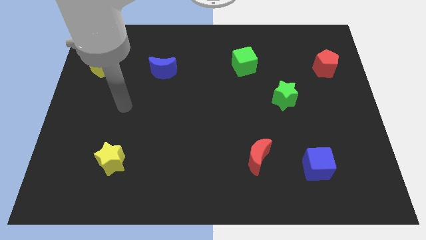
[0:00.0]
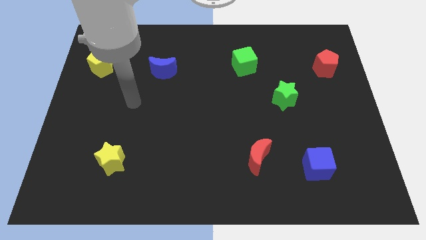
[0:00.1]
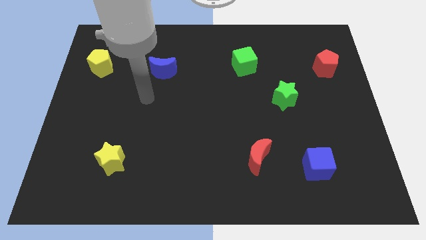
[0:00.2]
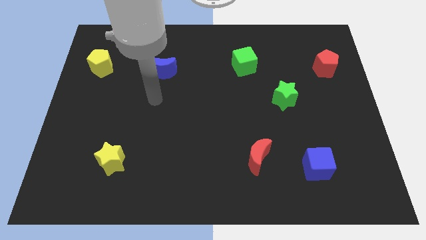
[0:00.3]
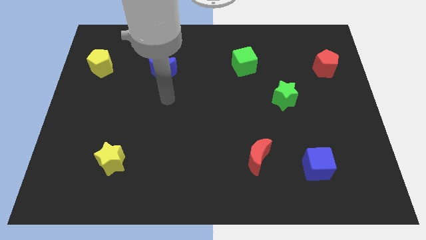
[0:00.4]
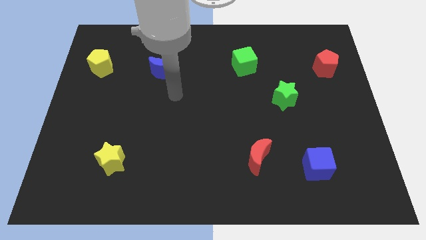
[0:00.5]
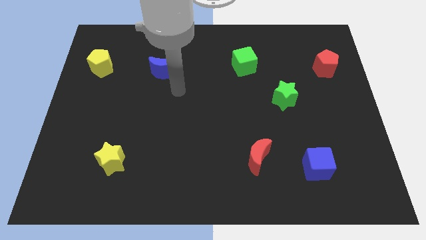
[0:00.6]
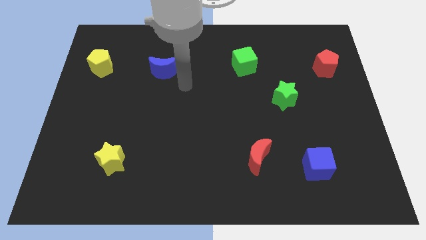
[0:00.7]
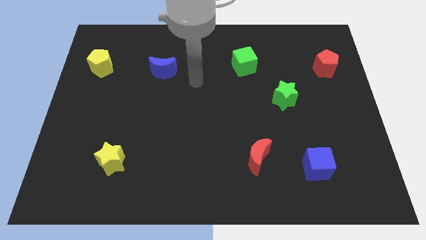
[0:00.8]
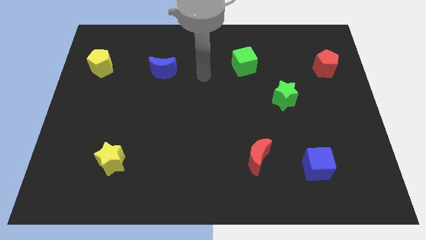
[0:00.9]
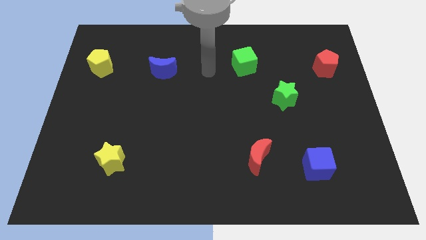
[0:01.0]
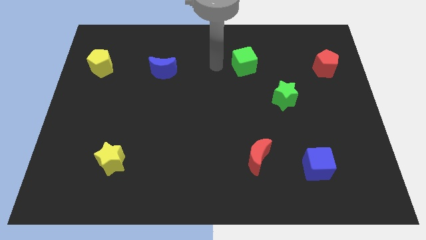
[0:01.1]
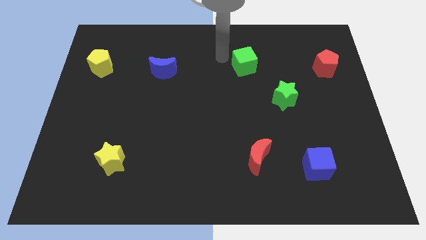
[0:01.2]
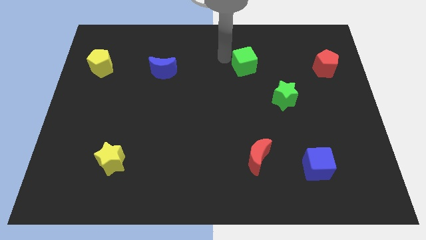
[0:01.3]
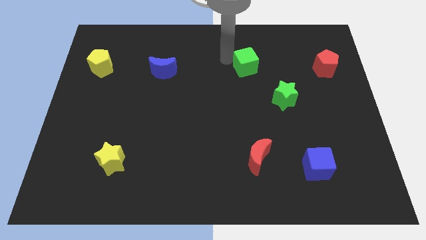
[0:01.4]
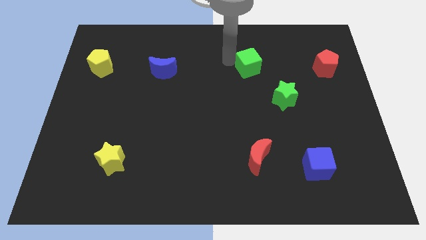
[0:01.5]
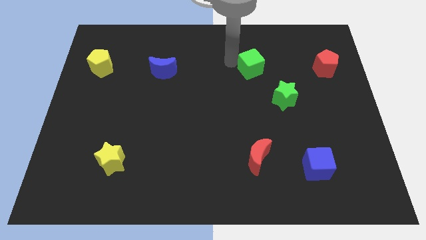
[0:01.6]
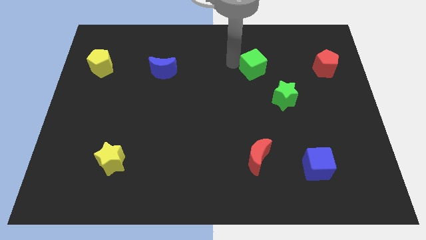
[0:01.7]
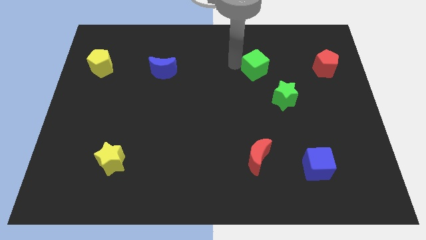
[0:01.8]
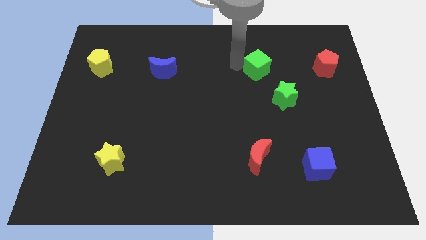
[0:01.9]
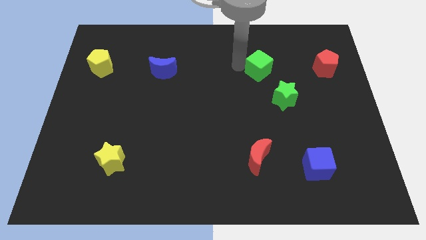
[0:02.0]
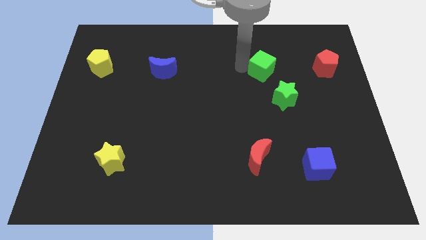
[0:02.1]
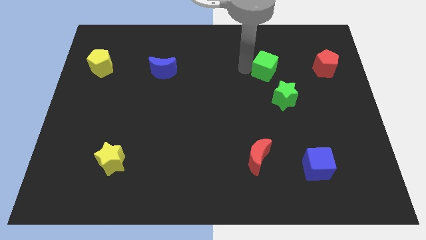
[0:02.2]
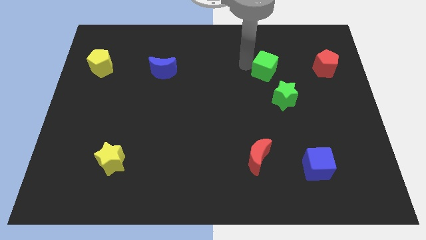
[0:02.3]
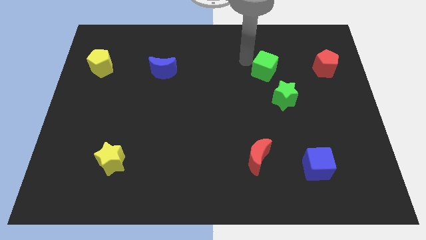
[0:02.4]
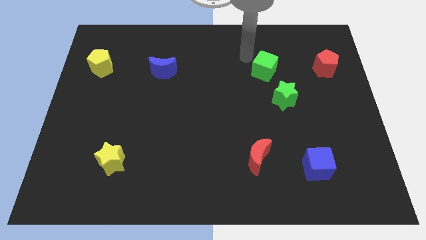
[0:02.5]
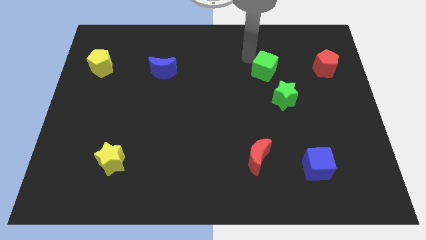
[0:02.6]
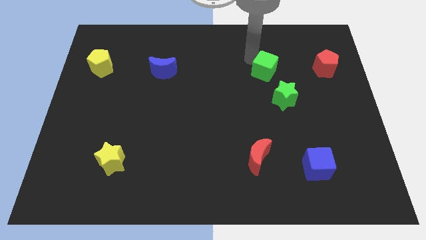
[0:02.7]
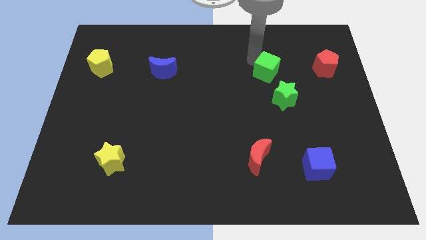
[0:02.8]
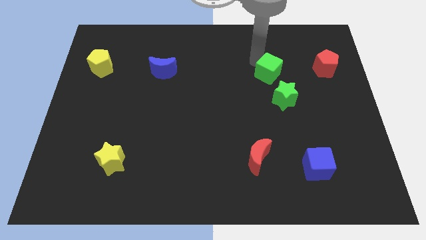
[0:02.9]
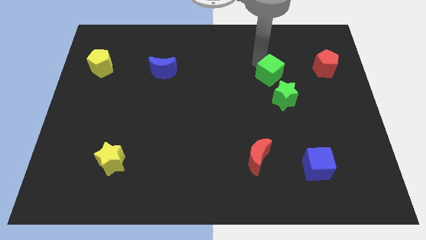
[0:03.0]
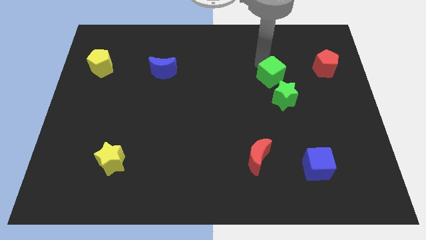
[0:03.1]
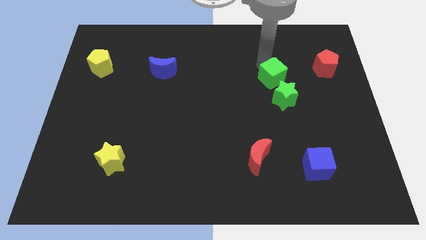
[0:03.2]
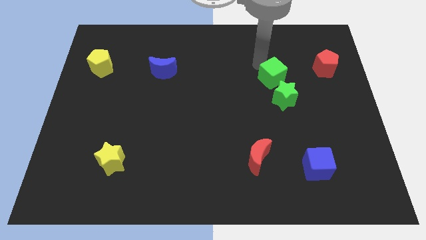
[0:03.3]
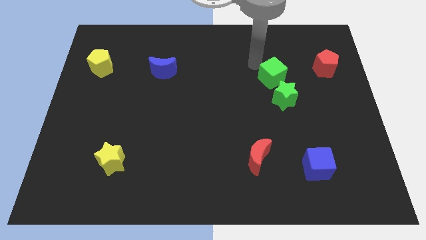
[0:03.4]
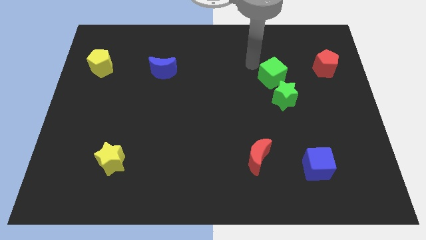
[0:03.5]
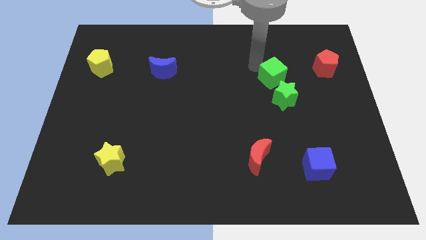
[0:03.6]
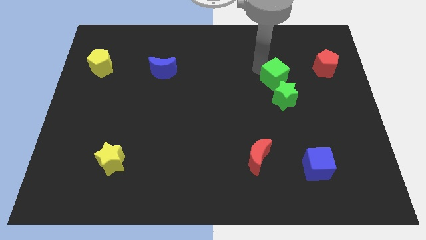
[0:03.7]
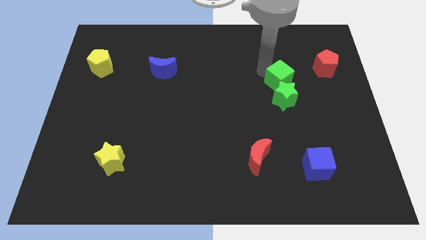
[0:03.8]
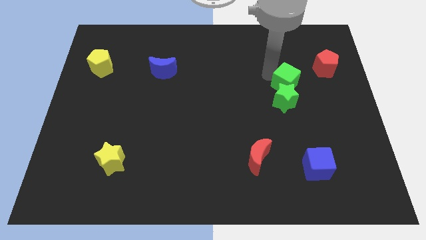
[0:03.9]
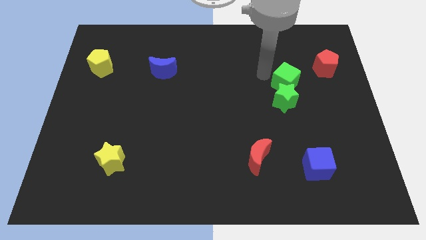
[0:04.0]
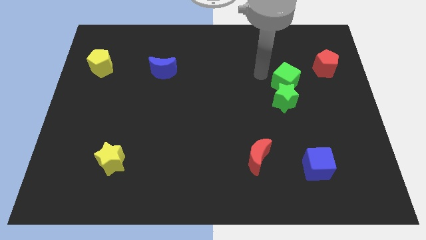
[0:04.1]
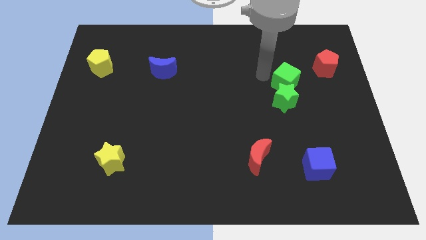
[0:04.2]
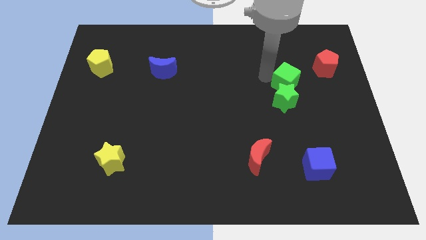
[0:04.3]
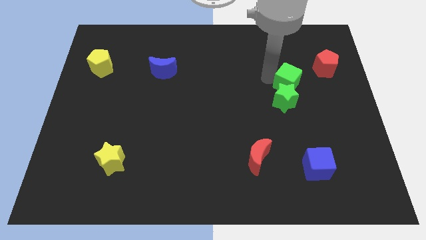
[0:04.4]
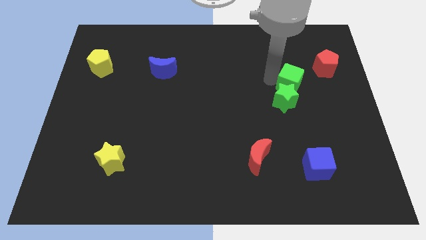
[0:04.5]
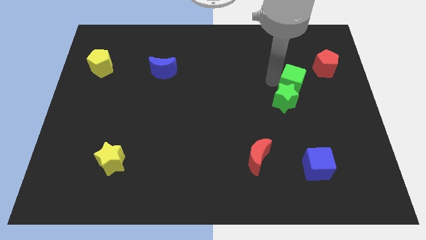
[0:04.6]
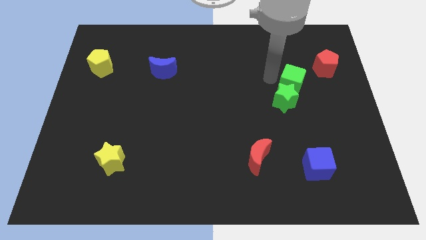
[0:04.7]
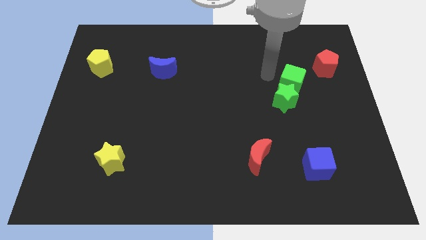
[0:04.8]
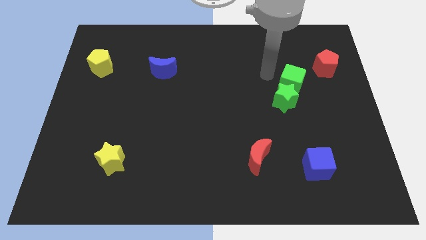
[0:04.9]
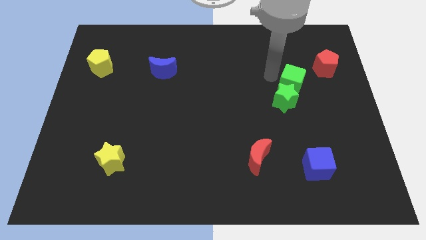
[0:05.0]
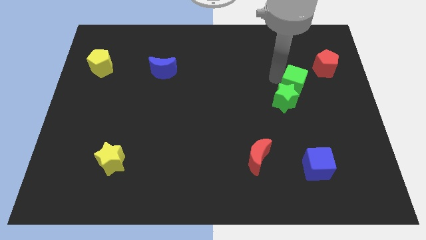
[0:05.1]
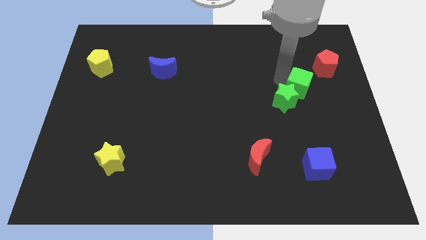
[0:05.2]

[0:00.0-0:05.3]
push the green cube to the right side of the green star

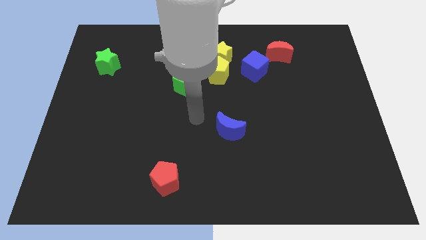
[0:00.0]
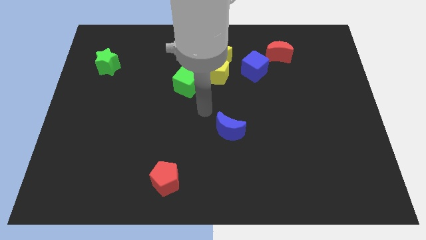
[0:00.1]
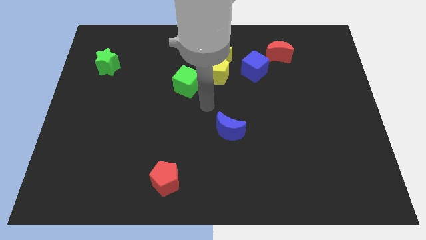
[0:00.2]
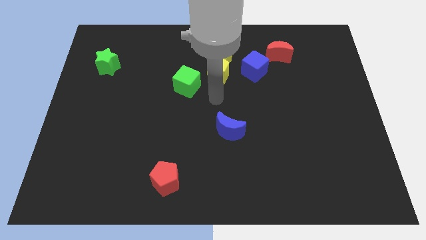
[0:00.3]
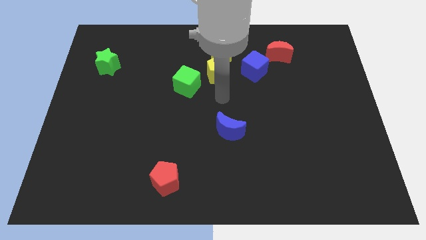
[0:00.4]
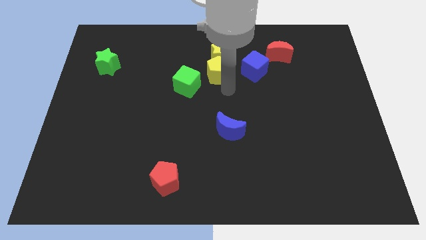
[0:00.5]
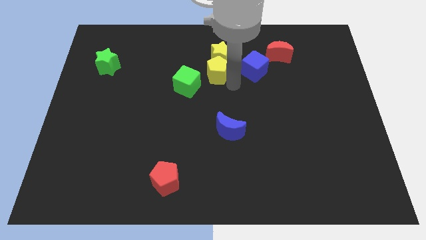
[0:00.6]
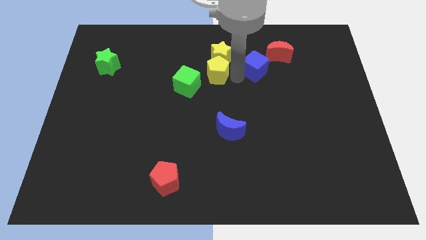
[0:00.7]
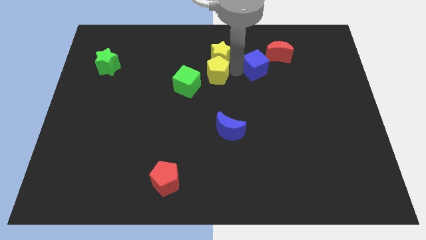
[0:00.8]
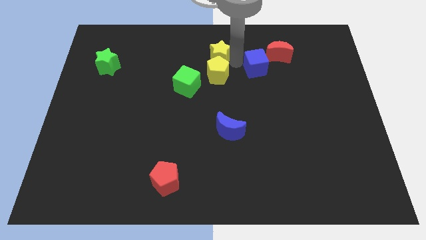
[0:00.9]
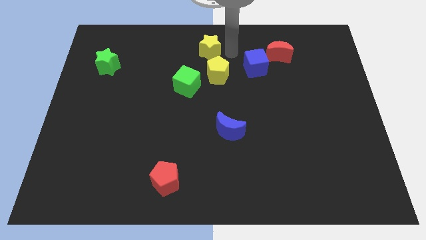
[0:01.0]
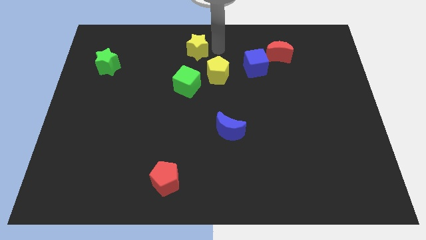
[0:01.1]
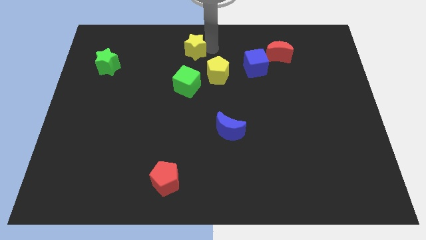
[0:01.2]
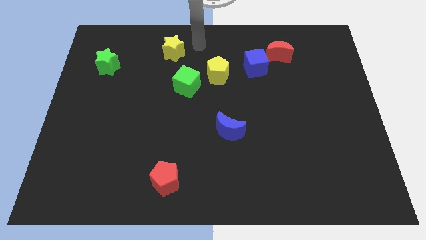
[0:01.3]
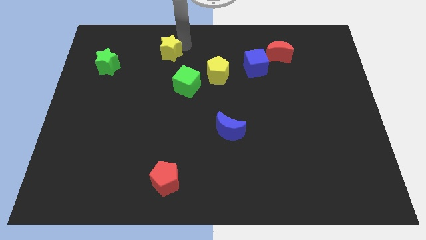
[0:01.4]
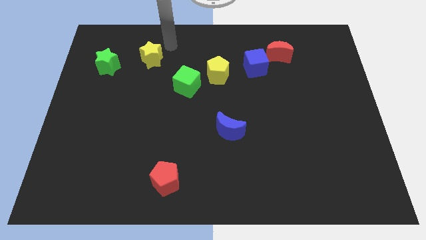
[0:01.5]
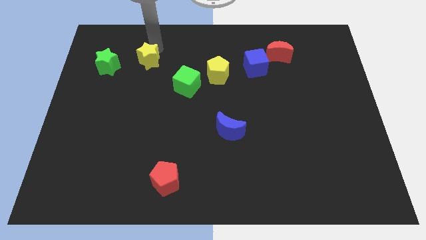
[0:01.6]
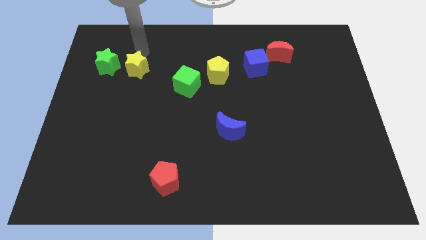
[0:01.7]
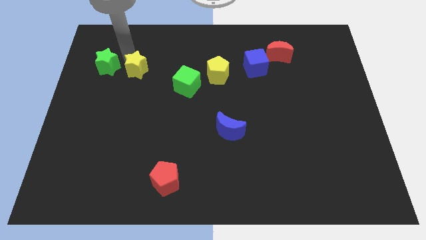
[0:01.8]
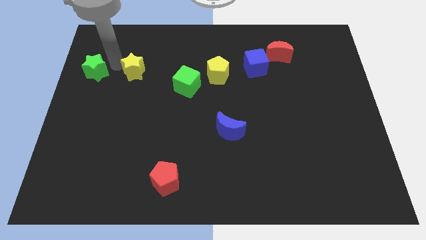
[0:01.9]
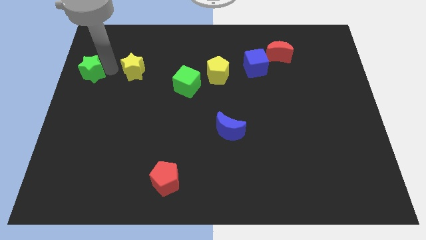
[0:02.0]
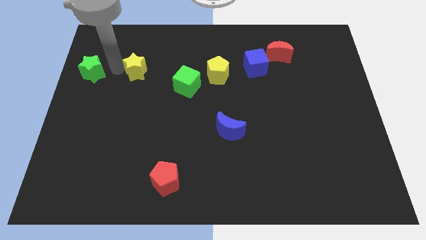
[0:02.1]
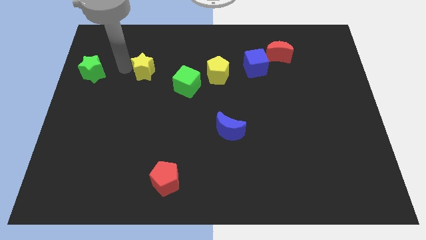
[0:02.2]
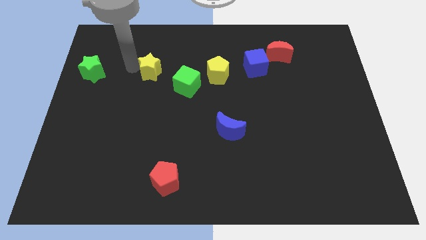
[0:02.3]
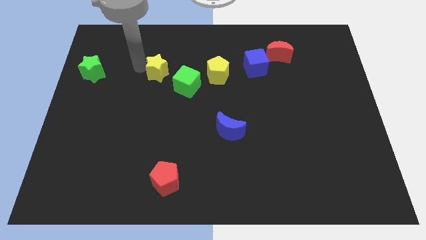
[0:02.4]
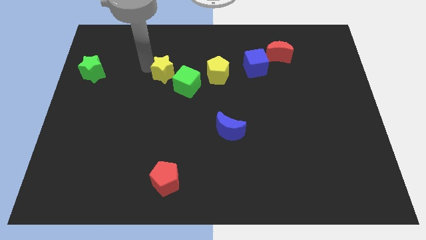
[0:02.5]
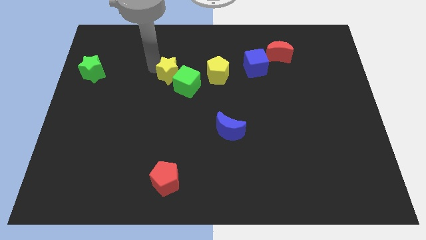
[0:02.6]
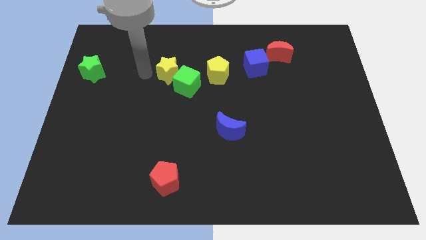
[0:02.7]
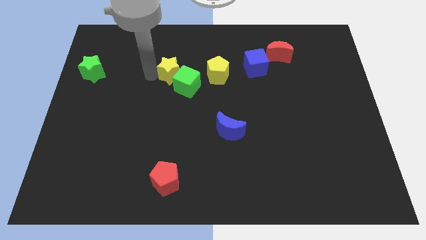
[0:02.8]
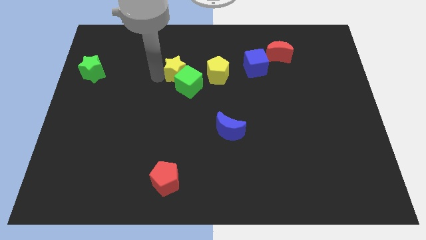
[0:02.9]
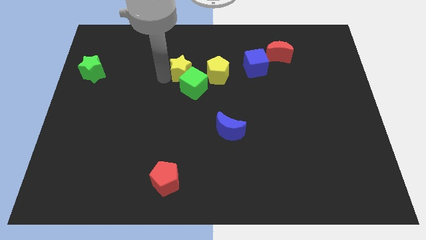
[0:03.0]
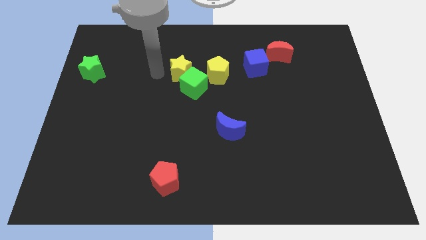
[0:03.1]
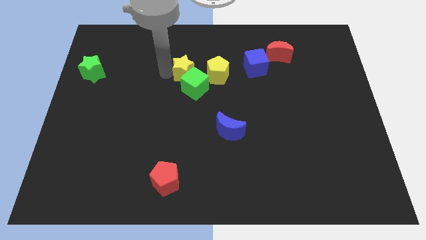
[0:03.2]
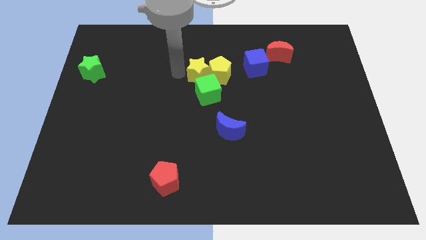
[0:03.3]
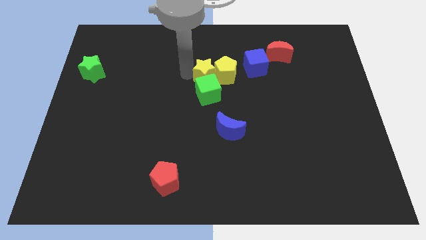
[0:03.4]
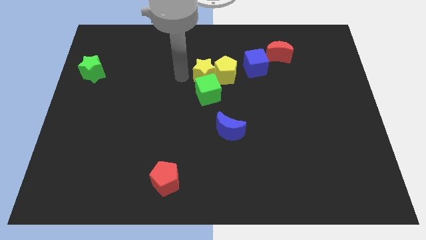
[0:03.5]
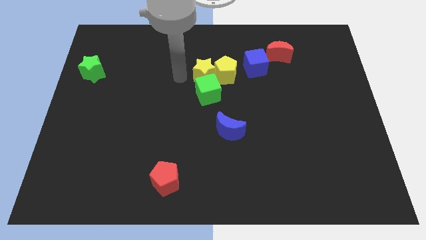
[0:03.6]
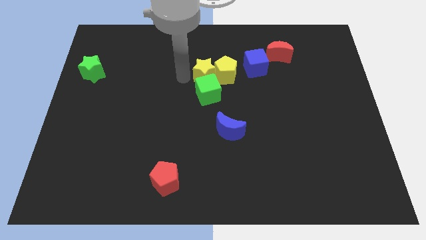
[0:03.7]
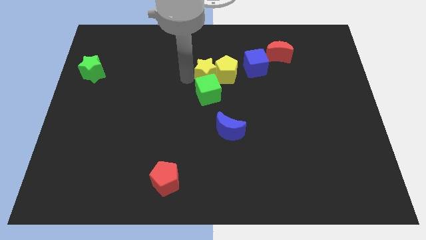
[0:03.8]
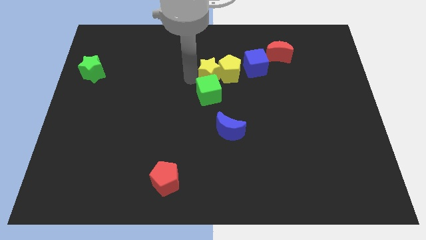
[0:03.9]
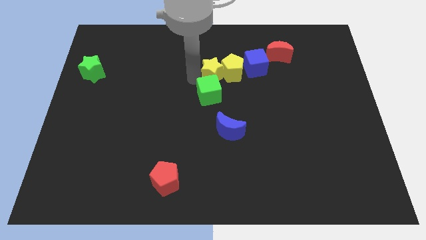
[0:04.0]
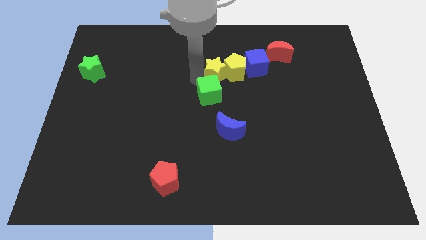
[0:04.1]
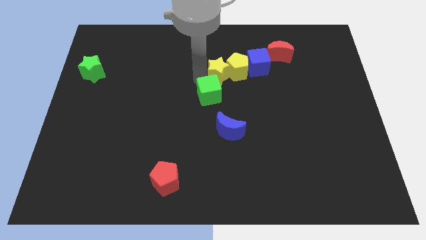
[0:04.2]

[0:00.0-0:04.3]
slide the yellow star to the bottom left of the blue cube
